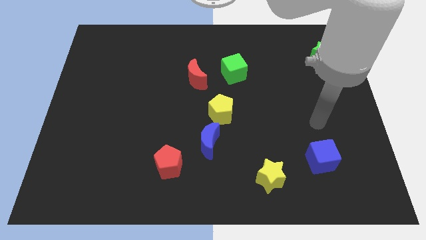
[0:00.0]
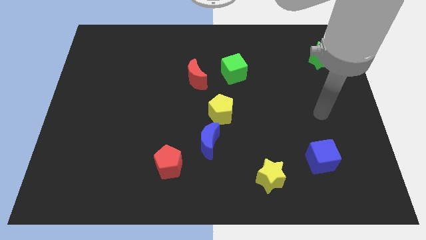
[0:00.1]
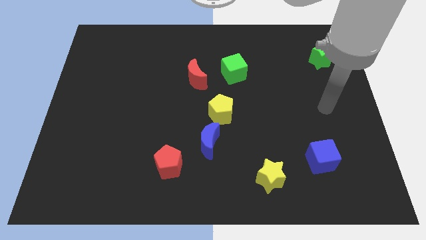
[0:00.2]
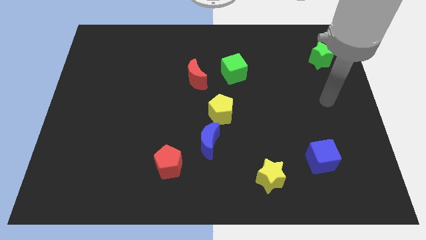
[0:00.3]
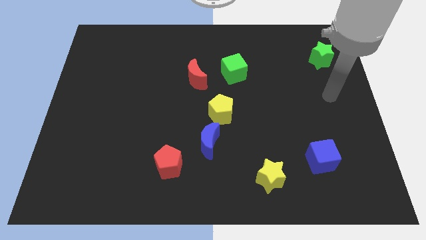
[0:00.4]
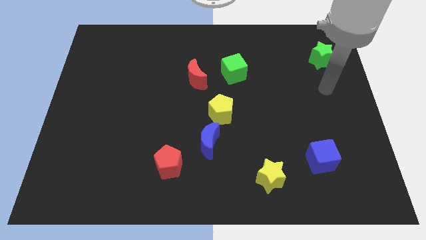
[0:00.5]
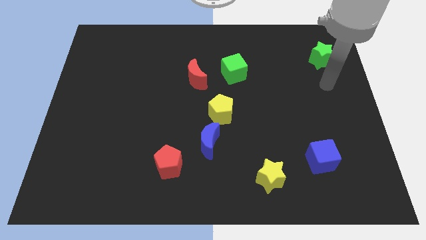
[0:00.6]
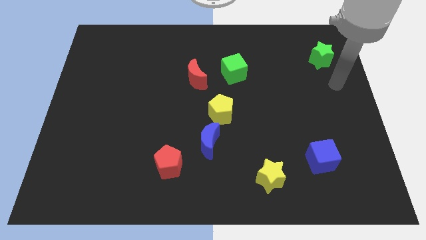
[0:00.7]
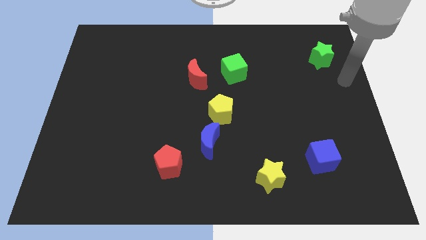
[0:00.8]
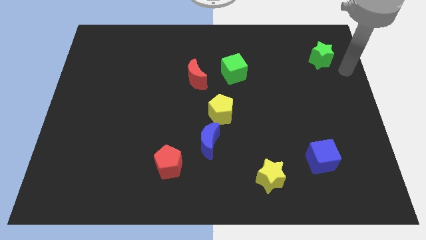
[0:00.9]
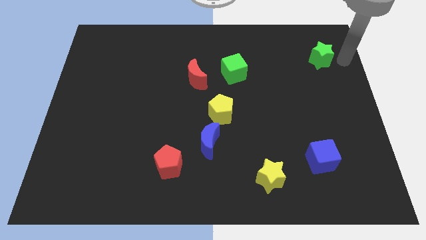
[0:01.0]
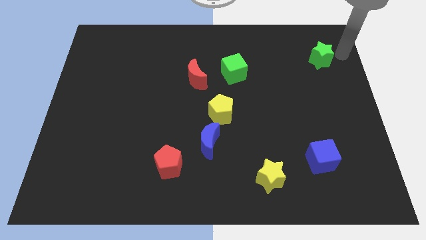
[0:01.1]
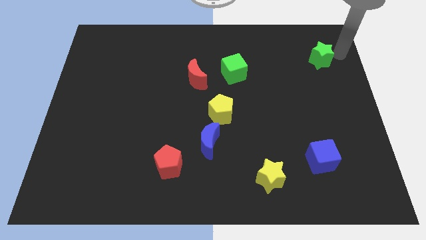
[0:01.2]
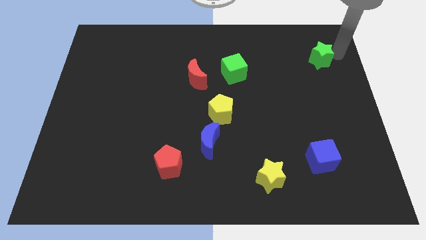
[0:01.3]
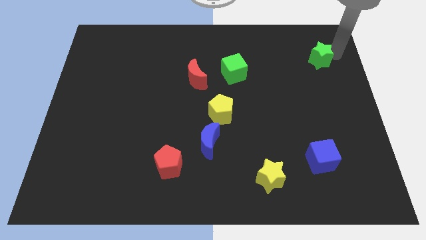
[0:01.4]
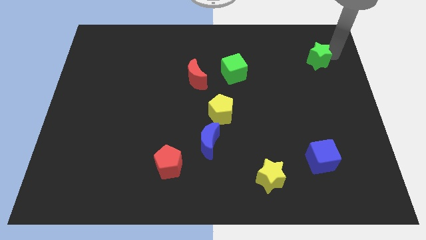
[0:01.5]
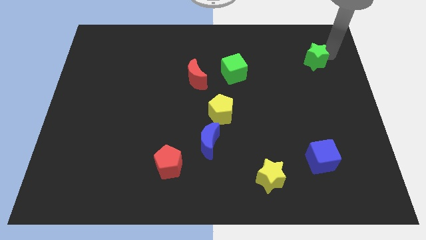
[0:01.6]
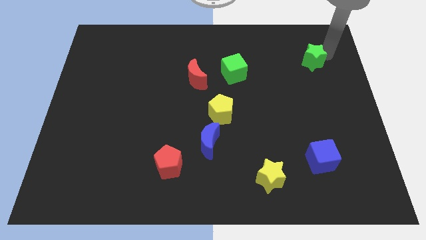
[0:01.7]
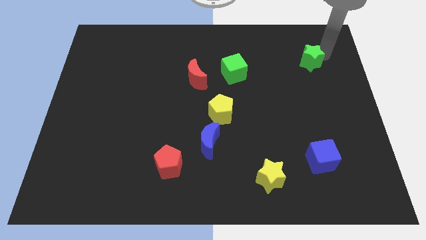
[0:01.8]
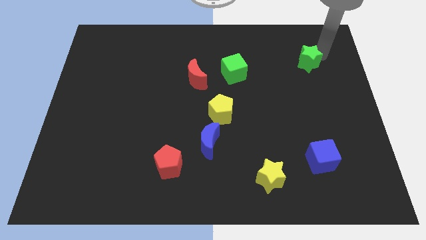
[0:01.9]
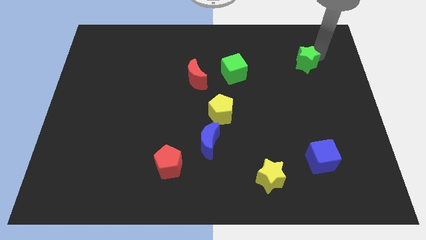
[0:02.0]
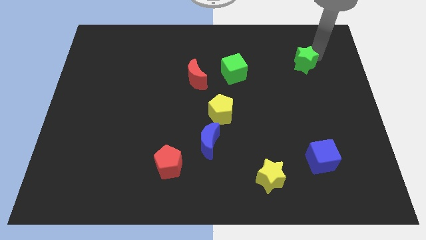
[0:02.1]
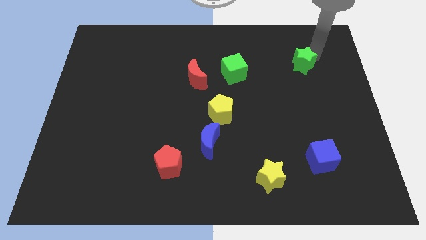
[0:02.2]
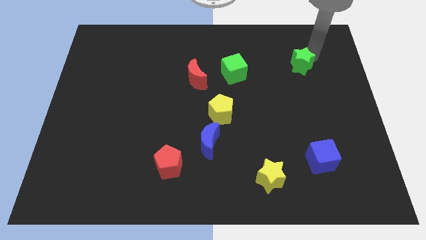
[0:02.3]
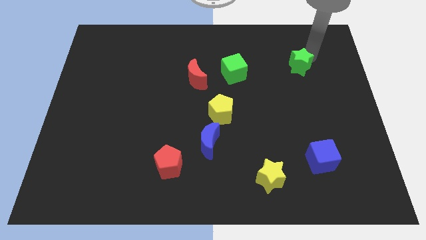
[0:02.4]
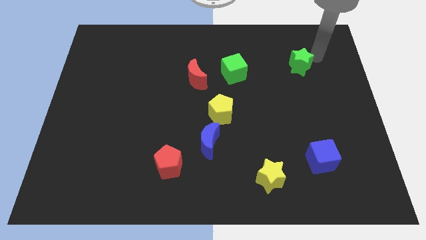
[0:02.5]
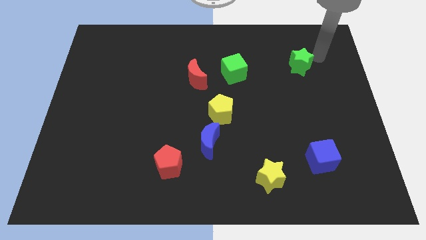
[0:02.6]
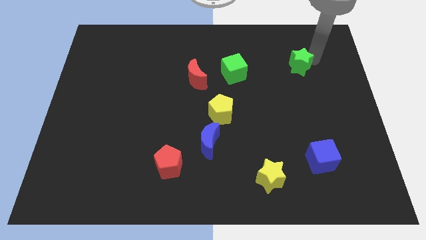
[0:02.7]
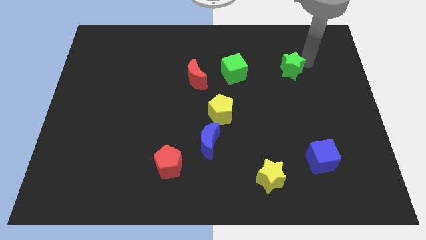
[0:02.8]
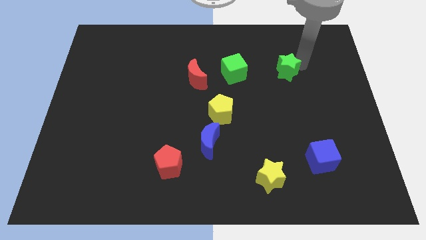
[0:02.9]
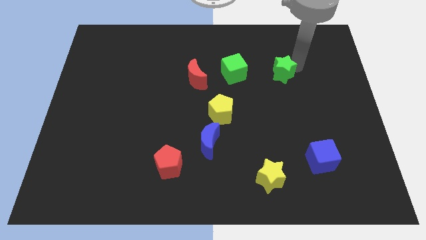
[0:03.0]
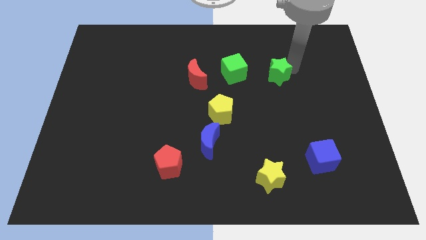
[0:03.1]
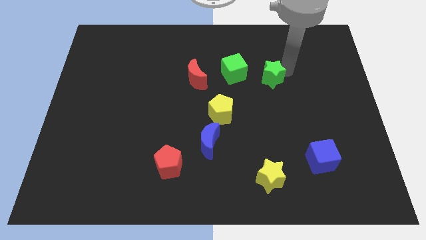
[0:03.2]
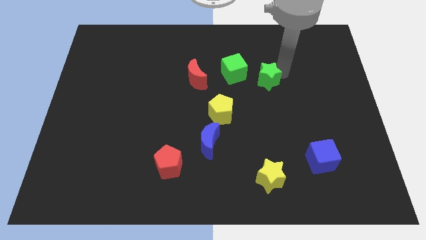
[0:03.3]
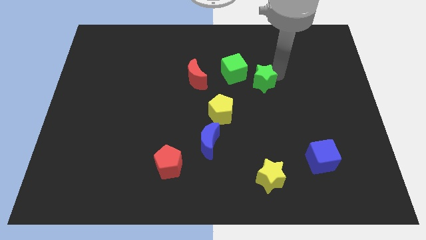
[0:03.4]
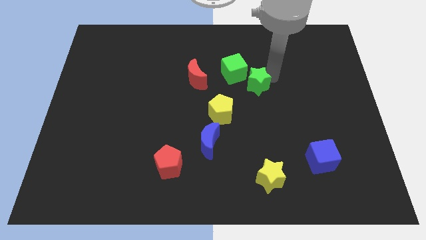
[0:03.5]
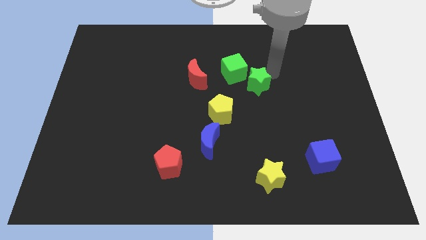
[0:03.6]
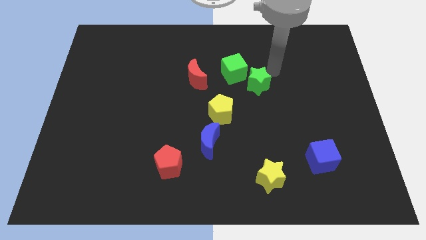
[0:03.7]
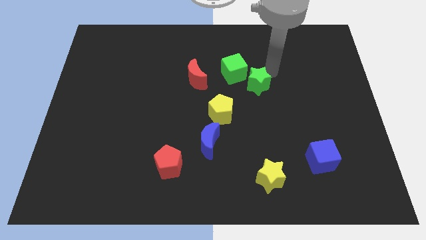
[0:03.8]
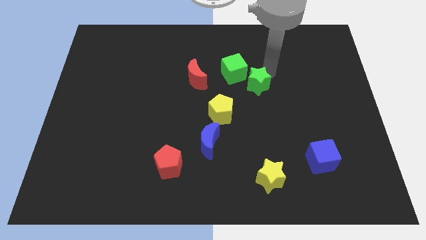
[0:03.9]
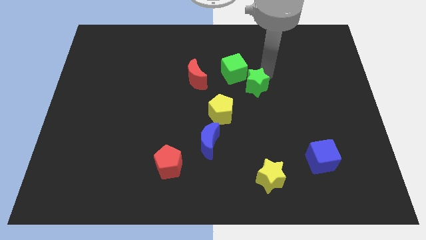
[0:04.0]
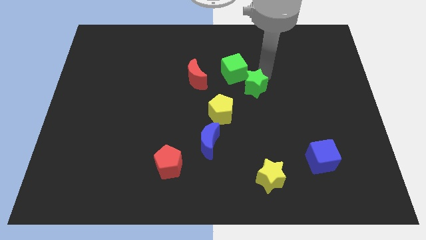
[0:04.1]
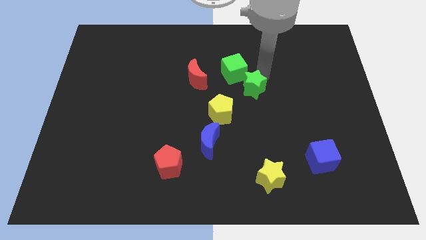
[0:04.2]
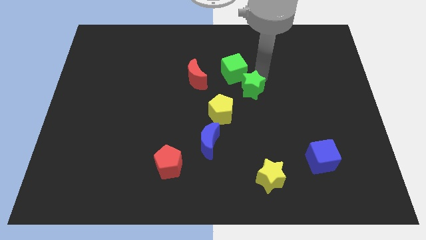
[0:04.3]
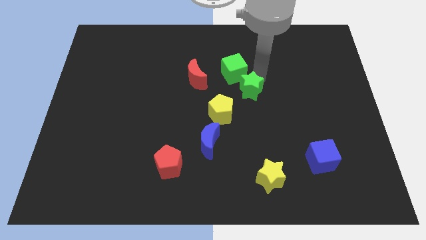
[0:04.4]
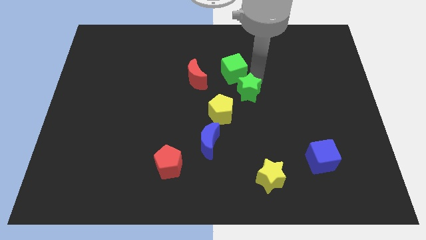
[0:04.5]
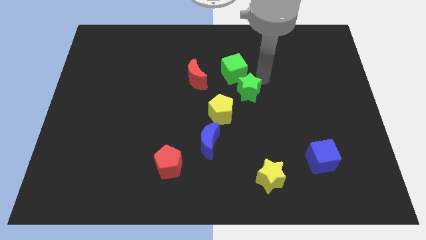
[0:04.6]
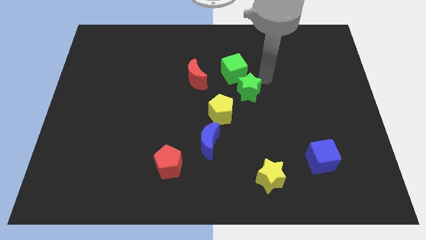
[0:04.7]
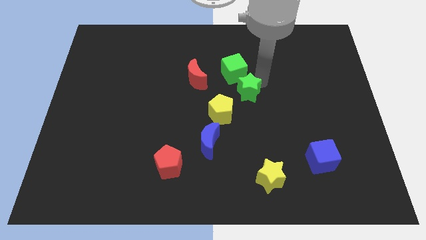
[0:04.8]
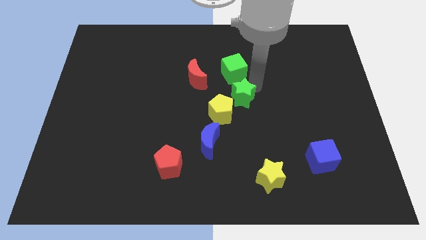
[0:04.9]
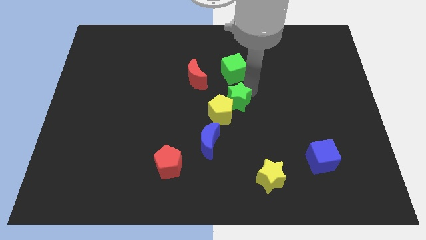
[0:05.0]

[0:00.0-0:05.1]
slide the green star to the yellow pentagon

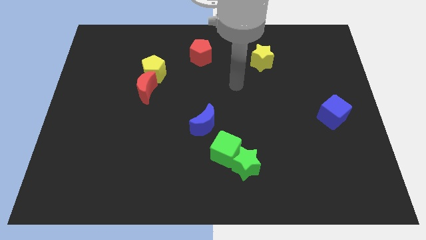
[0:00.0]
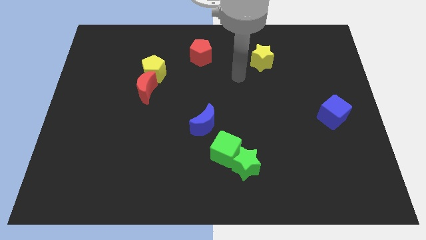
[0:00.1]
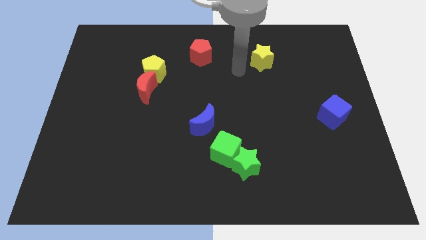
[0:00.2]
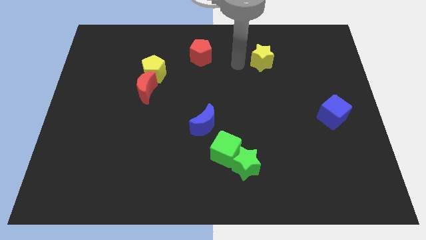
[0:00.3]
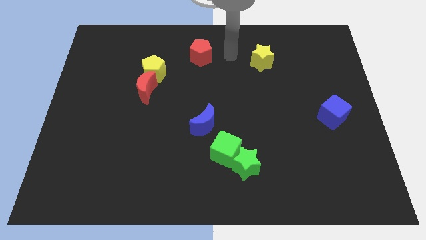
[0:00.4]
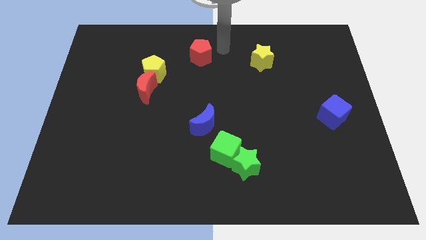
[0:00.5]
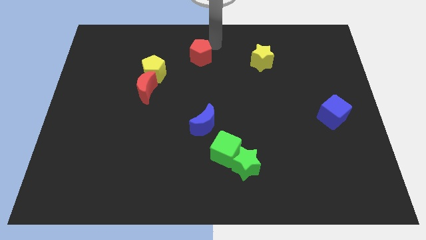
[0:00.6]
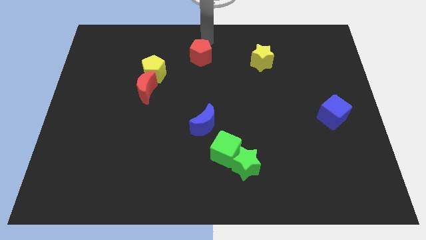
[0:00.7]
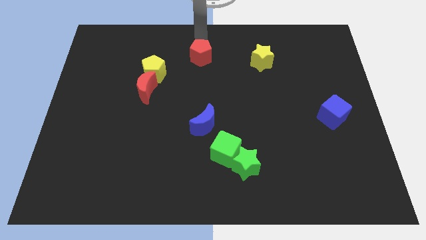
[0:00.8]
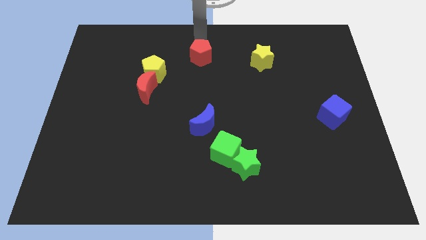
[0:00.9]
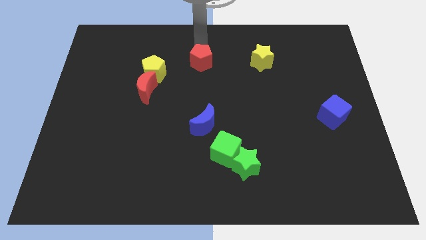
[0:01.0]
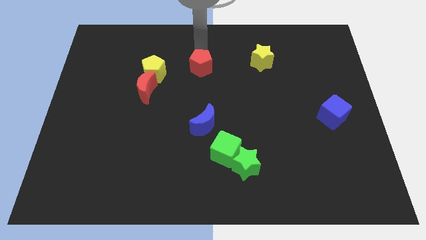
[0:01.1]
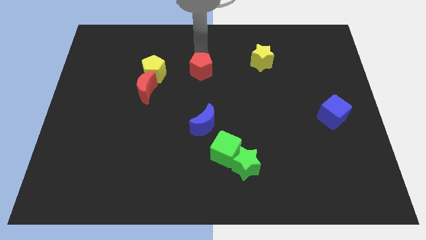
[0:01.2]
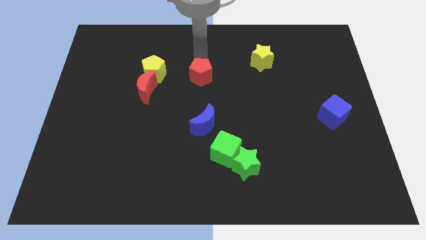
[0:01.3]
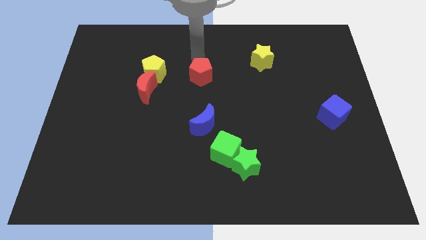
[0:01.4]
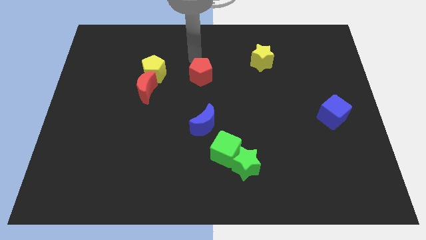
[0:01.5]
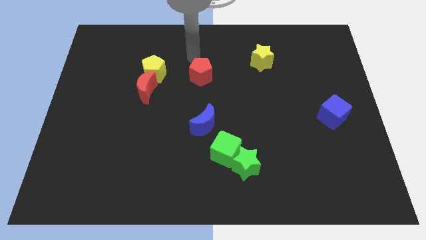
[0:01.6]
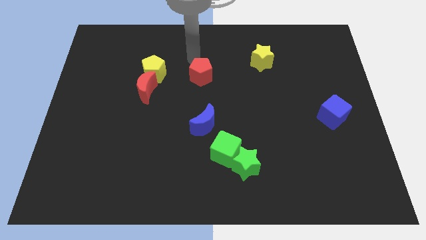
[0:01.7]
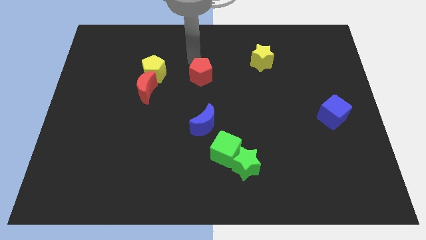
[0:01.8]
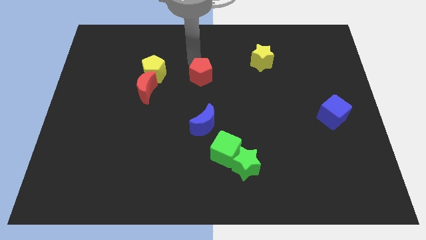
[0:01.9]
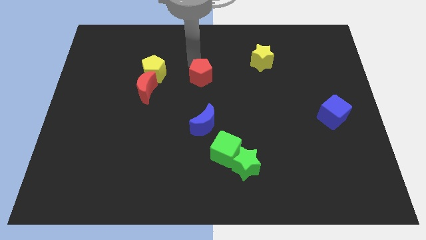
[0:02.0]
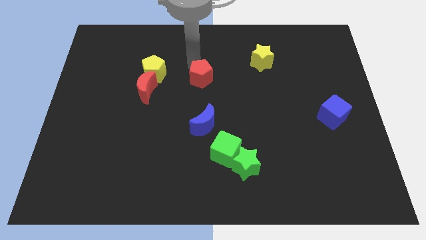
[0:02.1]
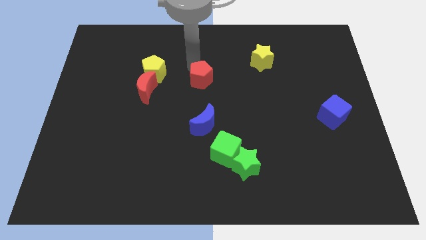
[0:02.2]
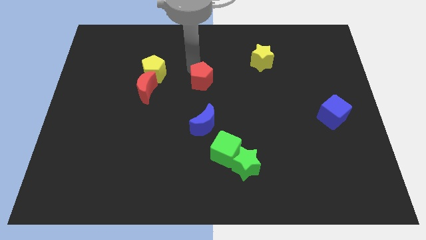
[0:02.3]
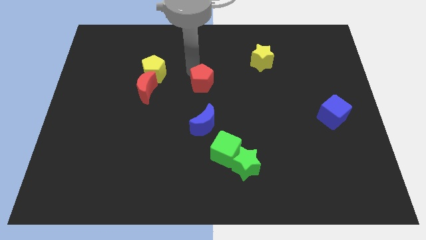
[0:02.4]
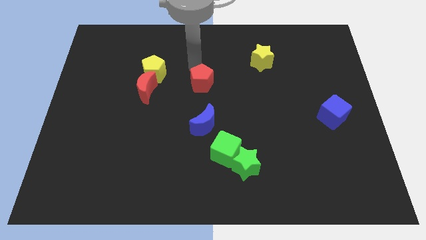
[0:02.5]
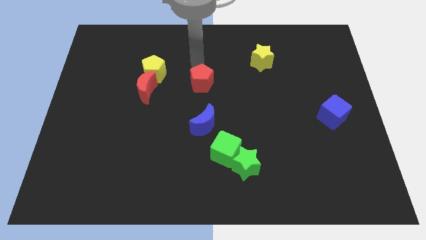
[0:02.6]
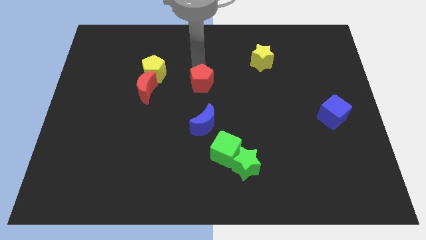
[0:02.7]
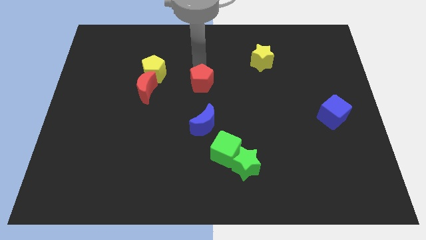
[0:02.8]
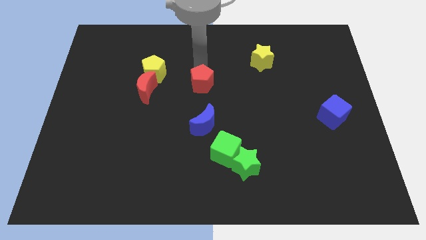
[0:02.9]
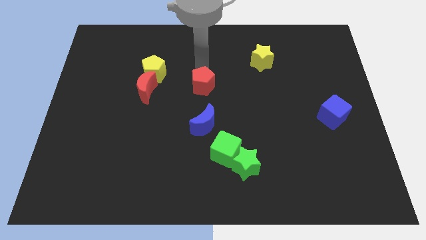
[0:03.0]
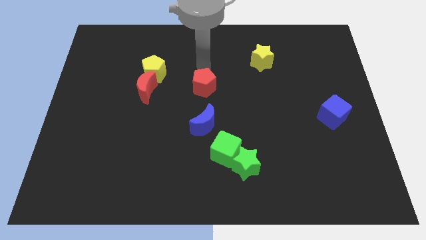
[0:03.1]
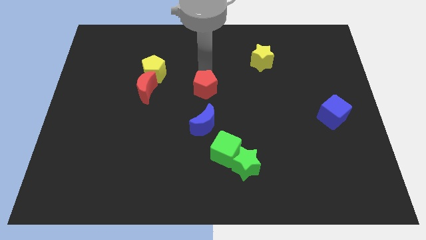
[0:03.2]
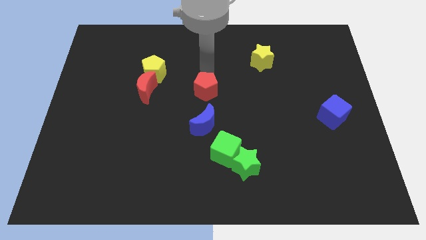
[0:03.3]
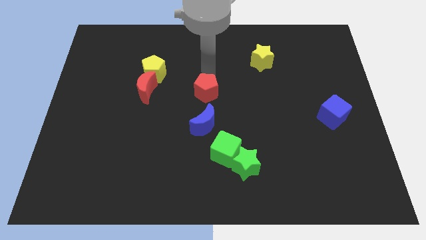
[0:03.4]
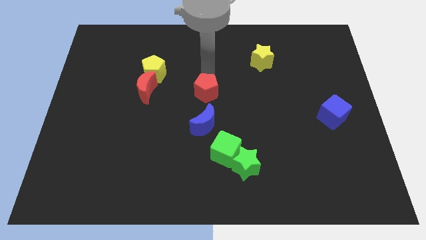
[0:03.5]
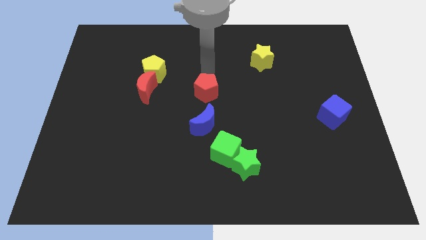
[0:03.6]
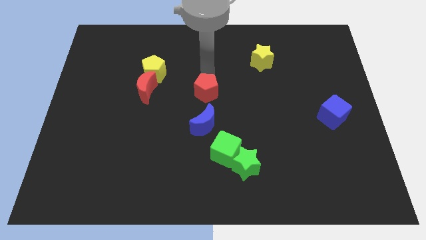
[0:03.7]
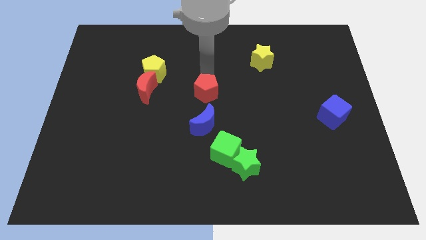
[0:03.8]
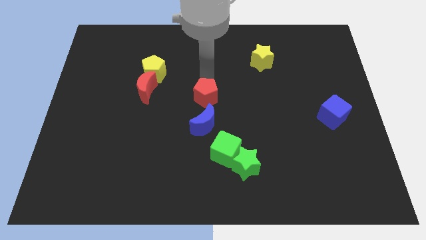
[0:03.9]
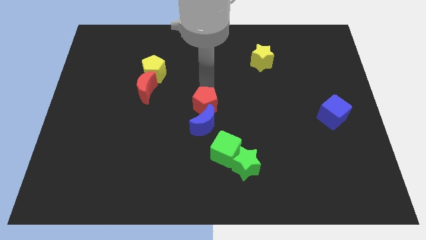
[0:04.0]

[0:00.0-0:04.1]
slide the red pentagon next to the blue moon
